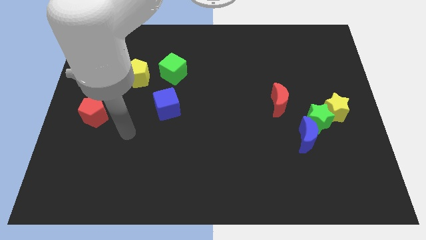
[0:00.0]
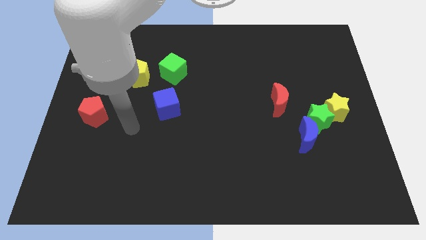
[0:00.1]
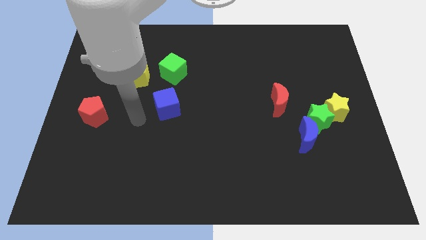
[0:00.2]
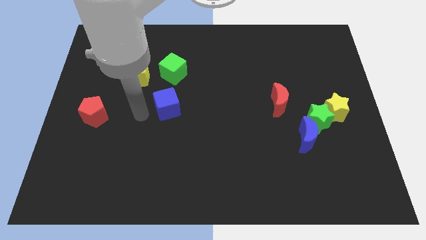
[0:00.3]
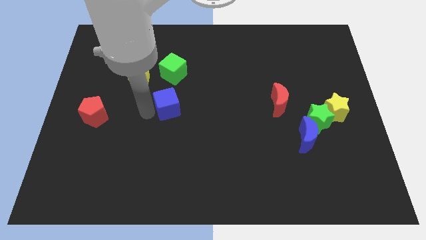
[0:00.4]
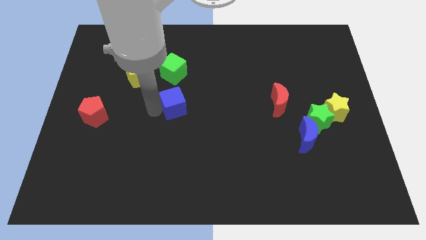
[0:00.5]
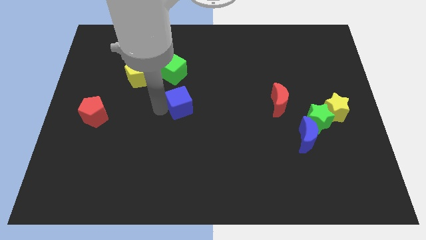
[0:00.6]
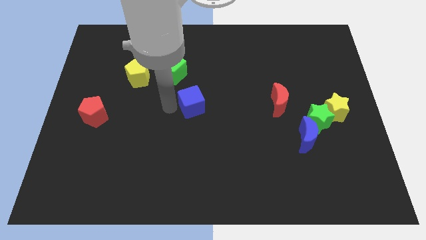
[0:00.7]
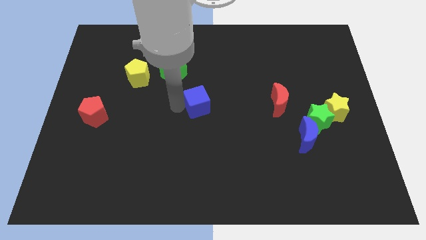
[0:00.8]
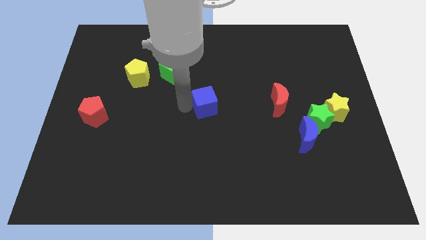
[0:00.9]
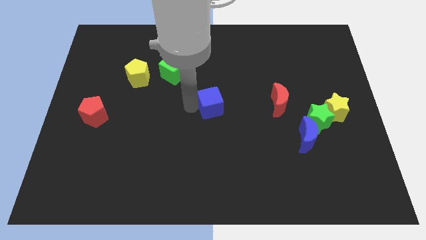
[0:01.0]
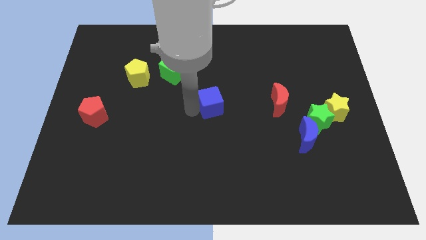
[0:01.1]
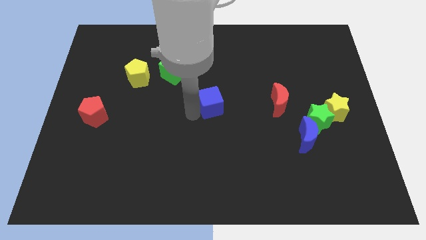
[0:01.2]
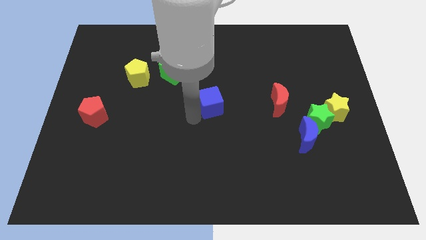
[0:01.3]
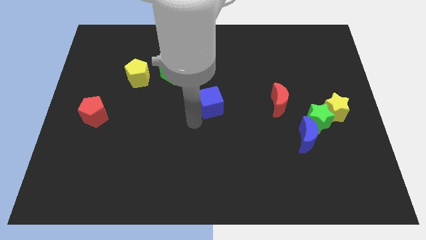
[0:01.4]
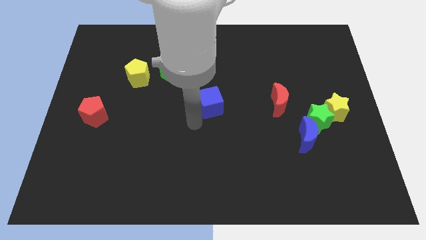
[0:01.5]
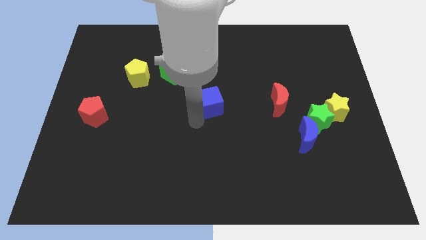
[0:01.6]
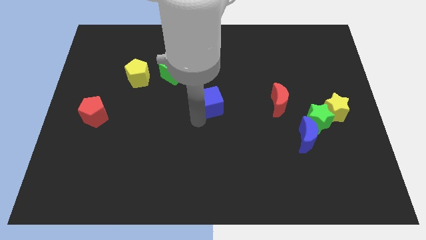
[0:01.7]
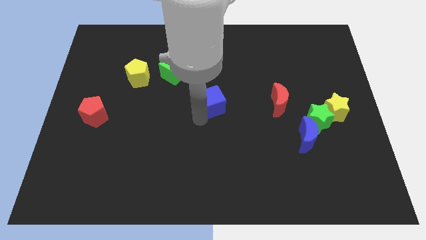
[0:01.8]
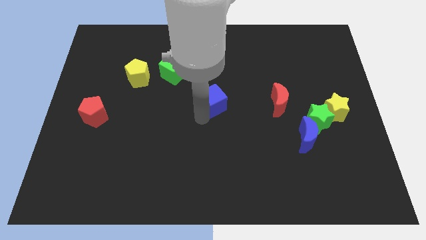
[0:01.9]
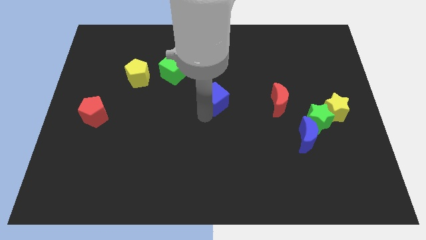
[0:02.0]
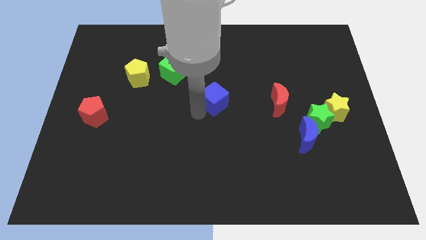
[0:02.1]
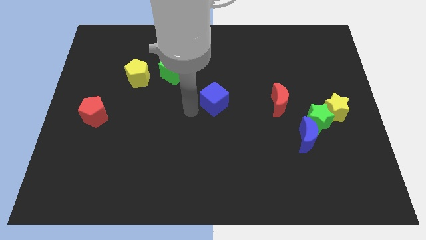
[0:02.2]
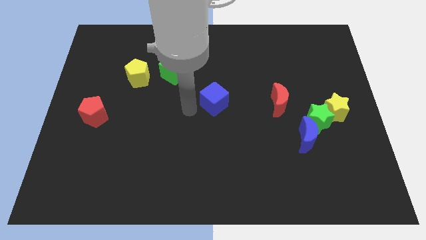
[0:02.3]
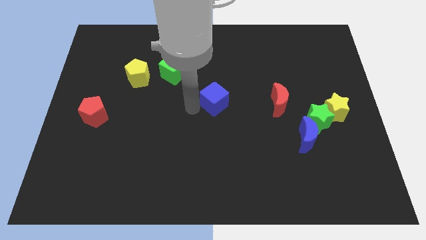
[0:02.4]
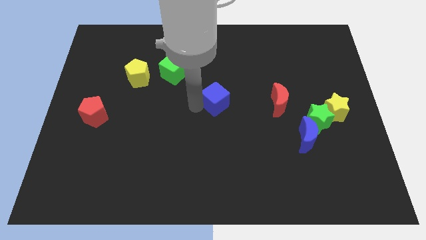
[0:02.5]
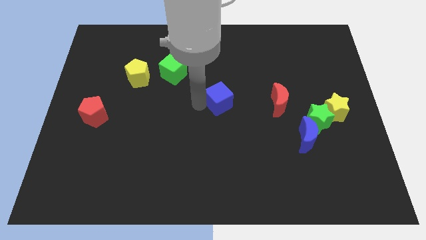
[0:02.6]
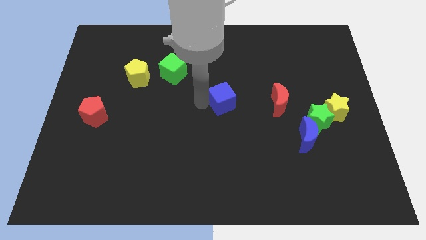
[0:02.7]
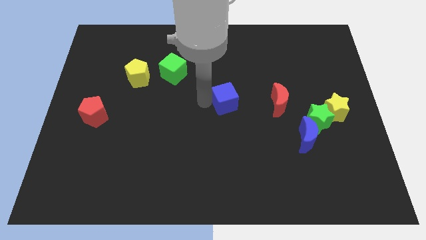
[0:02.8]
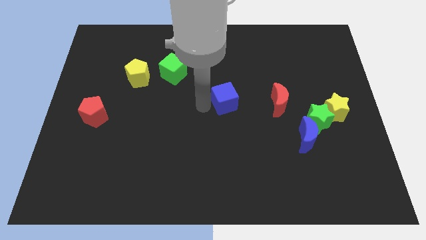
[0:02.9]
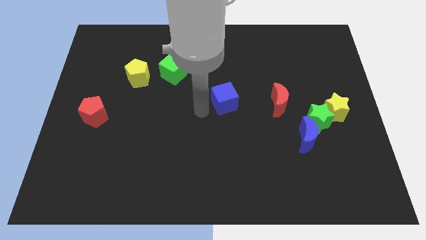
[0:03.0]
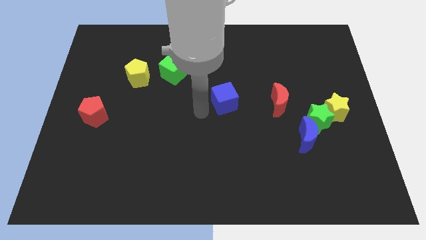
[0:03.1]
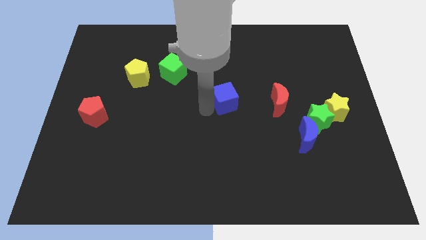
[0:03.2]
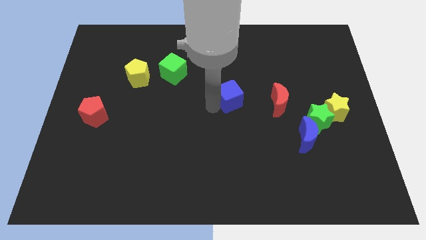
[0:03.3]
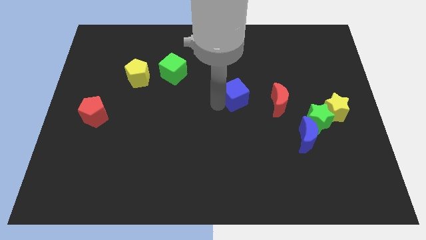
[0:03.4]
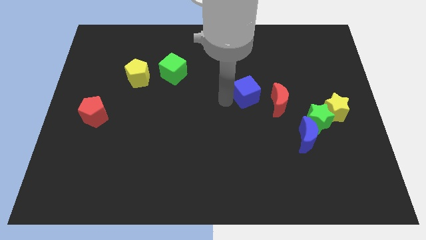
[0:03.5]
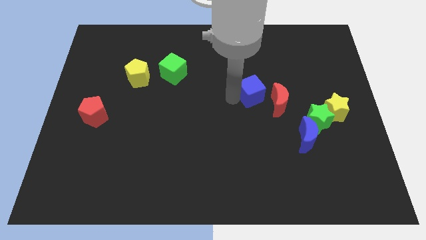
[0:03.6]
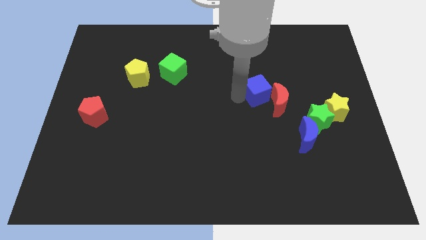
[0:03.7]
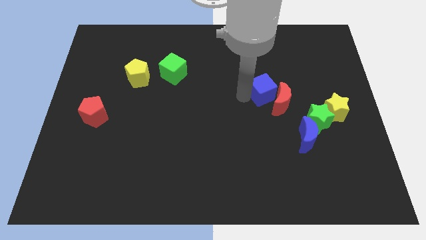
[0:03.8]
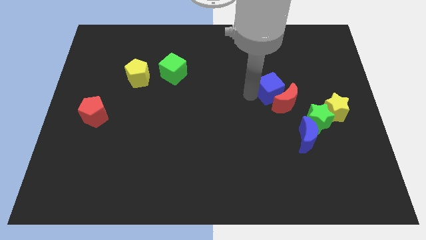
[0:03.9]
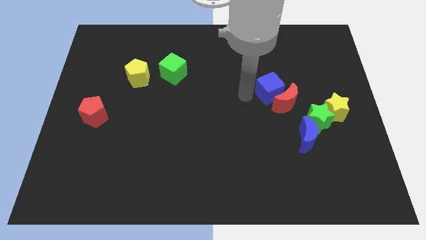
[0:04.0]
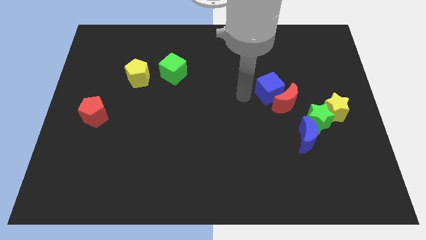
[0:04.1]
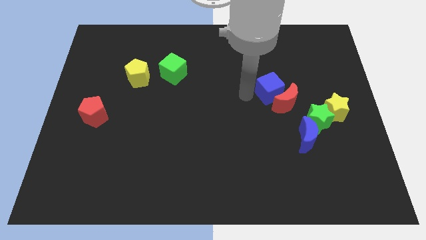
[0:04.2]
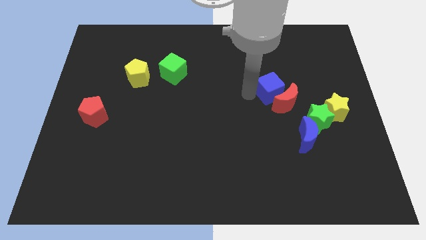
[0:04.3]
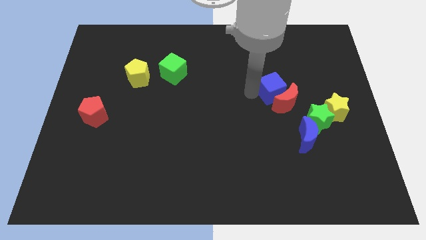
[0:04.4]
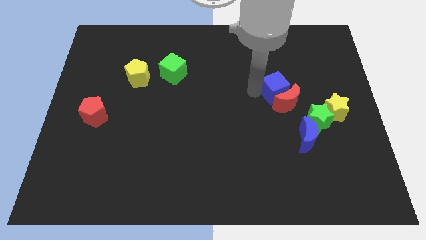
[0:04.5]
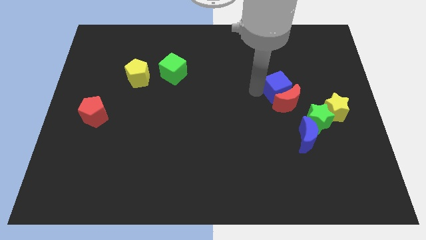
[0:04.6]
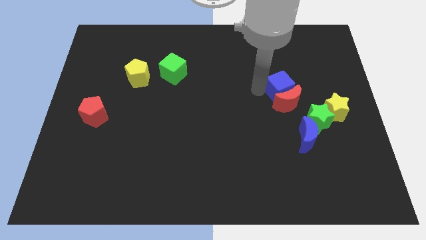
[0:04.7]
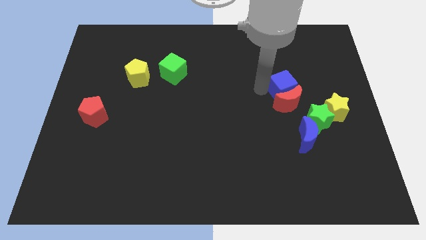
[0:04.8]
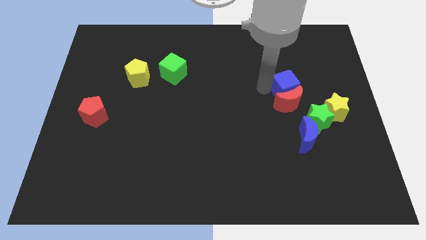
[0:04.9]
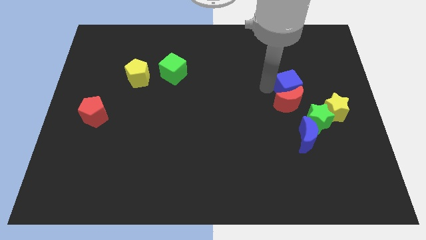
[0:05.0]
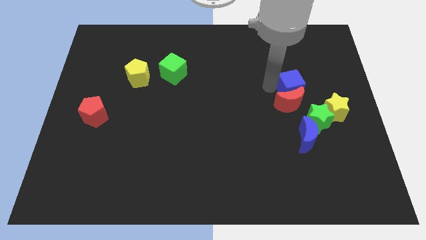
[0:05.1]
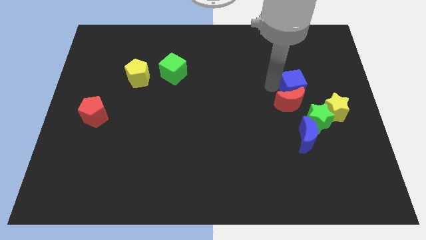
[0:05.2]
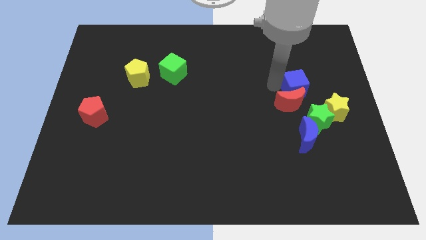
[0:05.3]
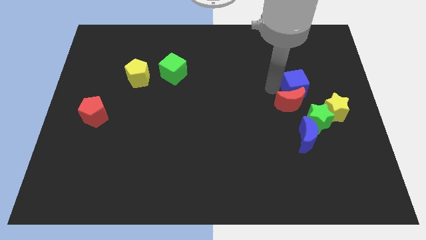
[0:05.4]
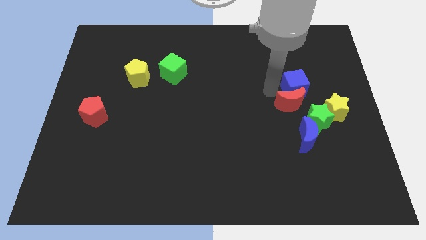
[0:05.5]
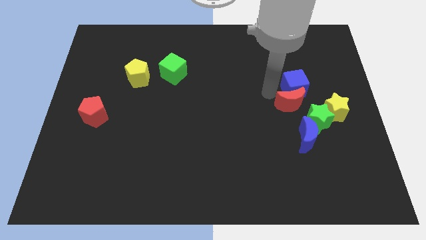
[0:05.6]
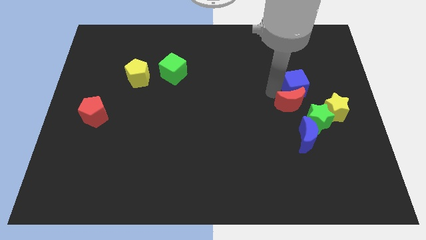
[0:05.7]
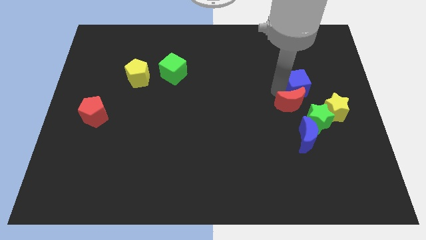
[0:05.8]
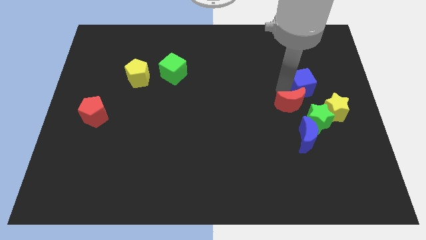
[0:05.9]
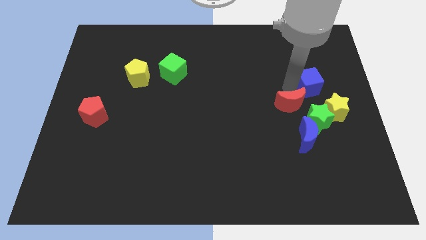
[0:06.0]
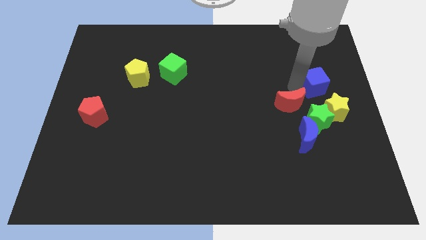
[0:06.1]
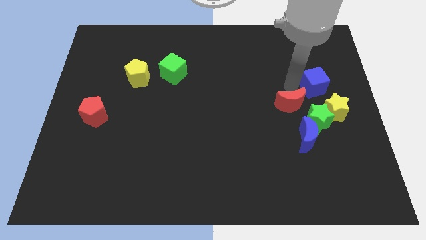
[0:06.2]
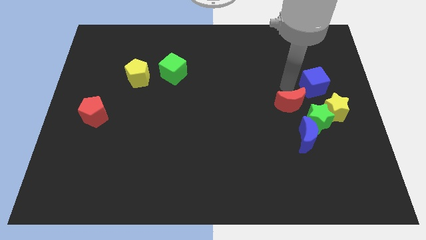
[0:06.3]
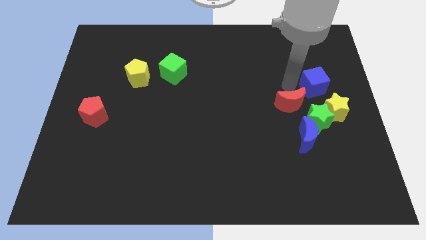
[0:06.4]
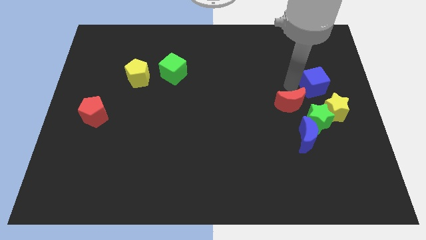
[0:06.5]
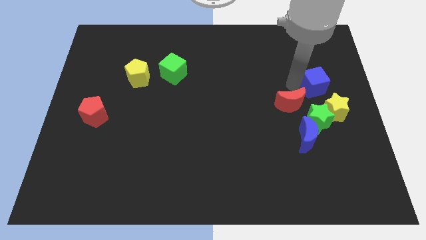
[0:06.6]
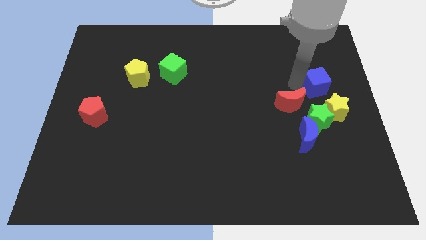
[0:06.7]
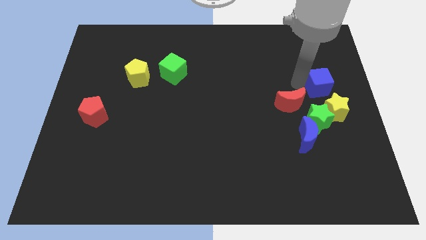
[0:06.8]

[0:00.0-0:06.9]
put the blue cube to the right side of the board
